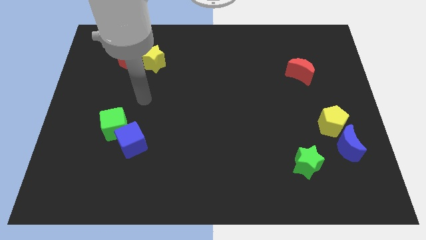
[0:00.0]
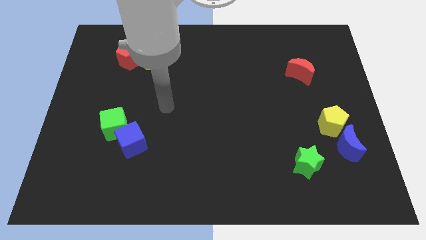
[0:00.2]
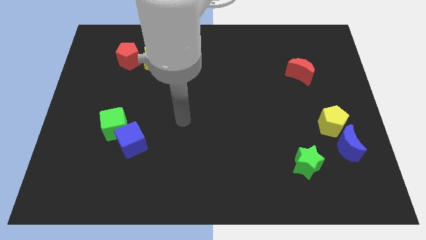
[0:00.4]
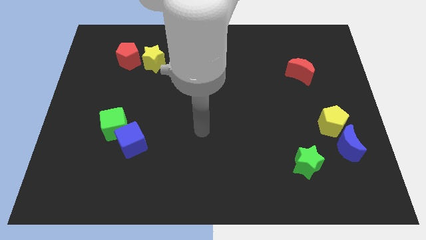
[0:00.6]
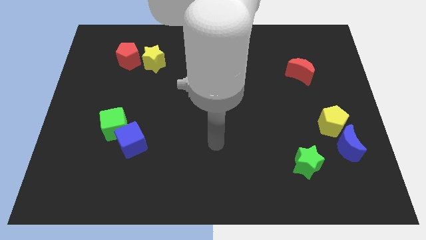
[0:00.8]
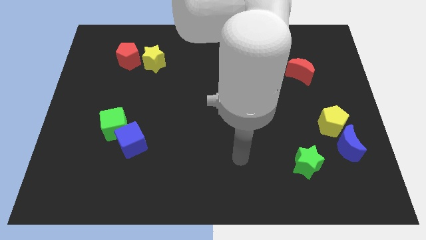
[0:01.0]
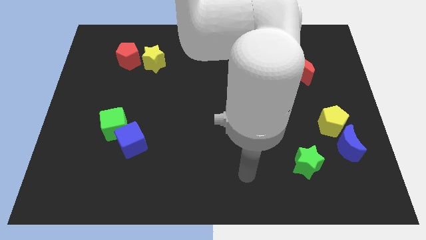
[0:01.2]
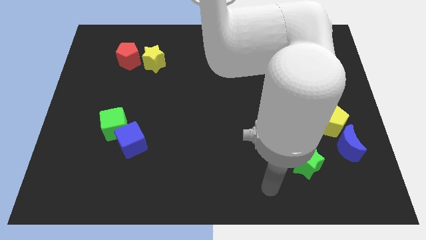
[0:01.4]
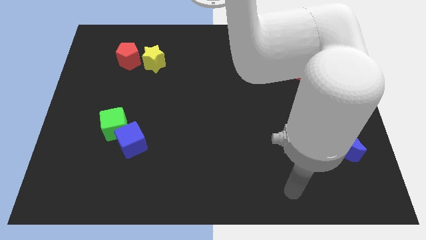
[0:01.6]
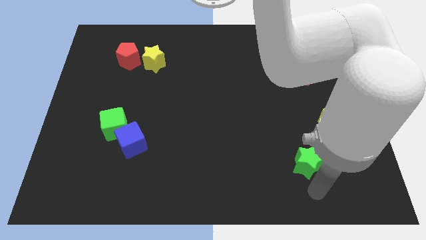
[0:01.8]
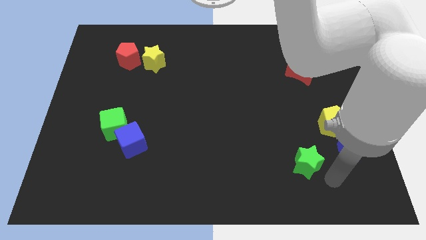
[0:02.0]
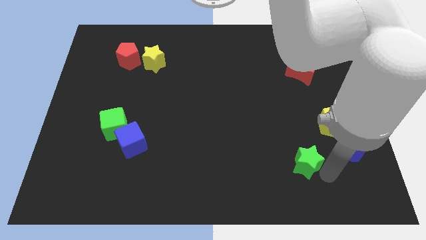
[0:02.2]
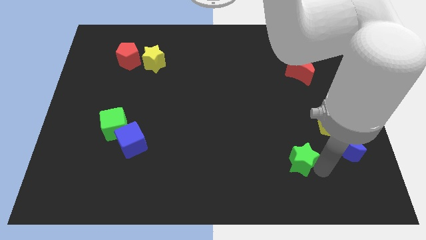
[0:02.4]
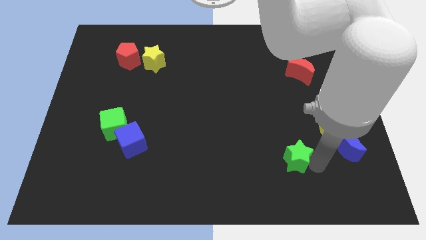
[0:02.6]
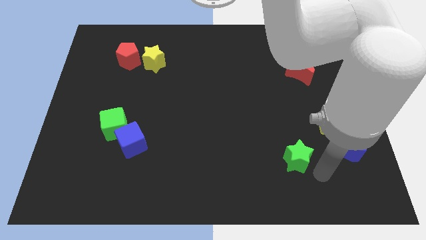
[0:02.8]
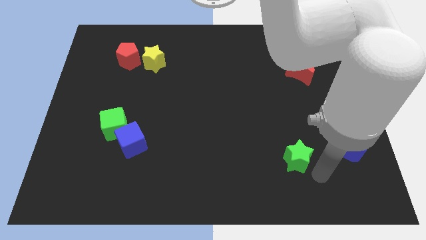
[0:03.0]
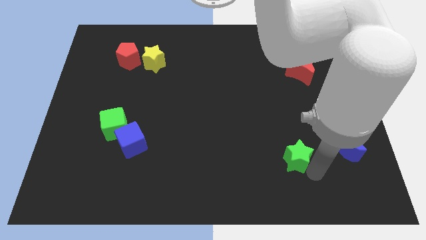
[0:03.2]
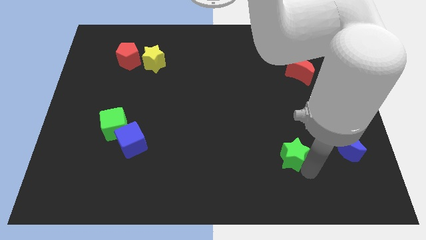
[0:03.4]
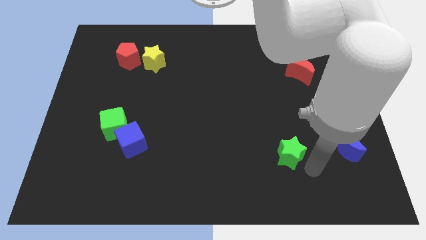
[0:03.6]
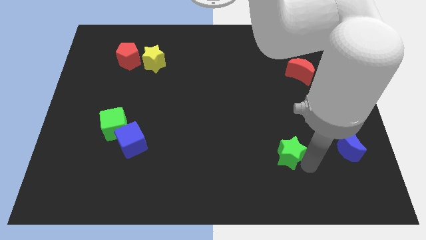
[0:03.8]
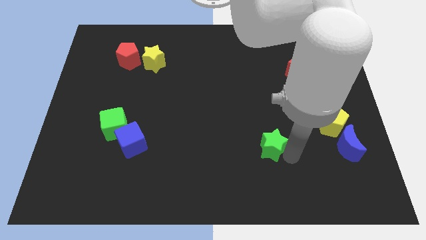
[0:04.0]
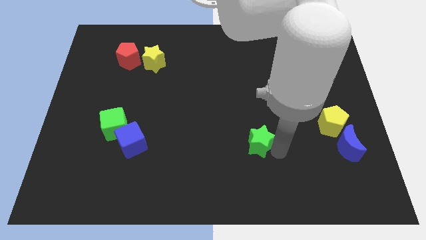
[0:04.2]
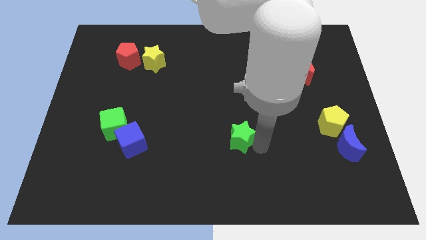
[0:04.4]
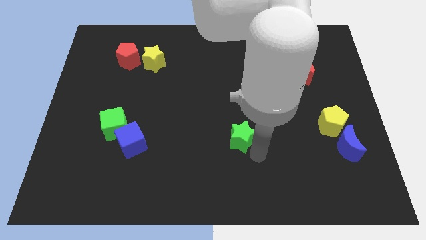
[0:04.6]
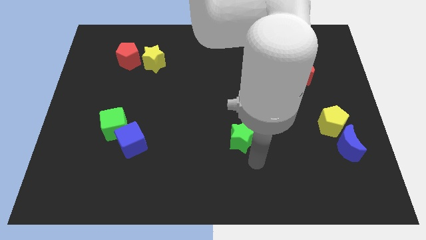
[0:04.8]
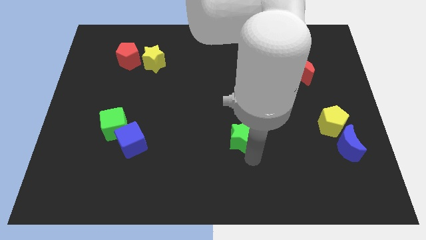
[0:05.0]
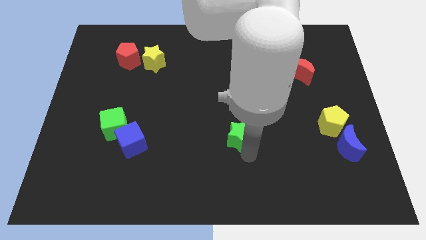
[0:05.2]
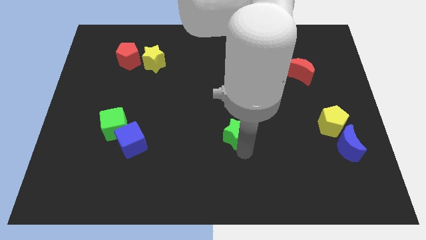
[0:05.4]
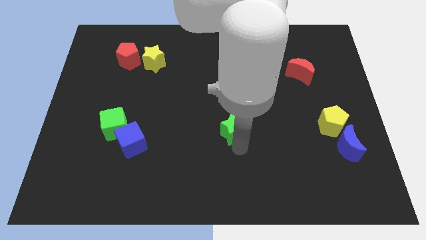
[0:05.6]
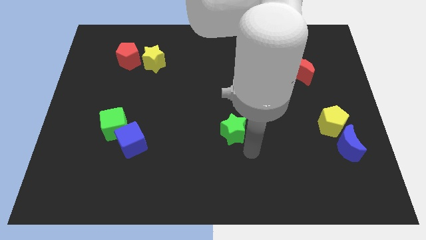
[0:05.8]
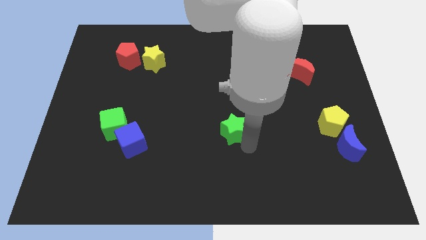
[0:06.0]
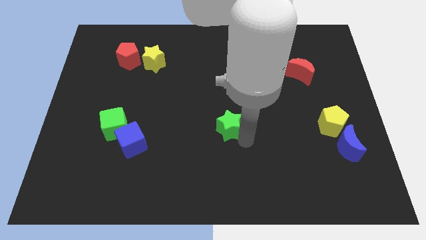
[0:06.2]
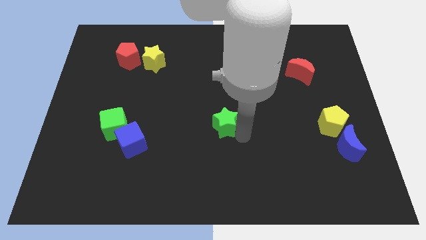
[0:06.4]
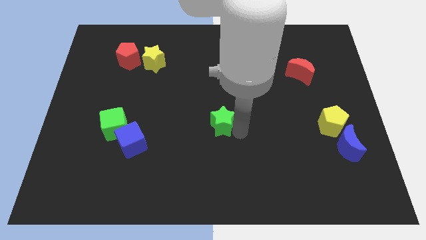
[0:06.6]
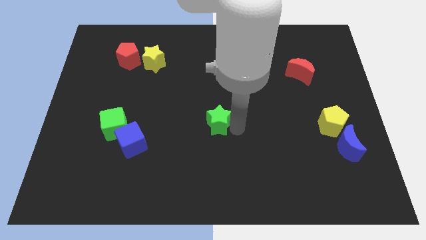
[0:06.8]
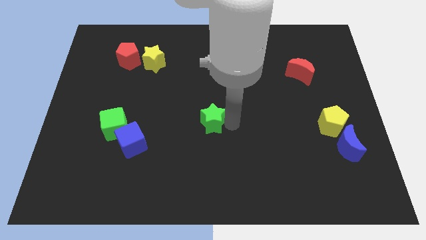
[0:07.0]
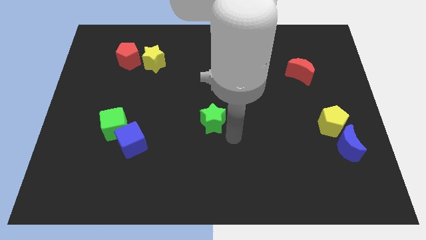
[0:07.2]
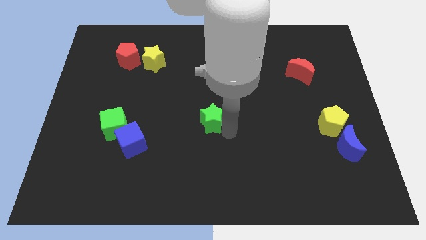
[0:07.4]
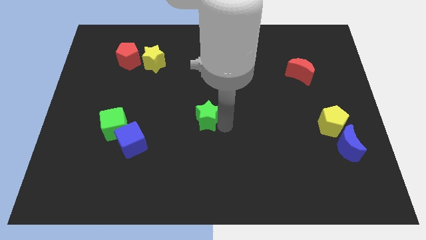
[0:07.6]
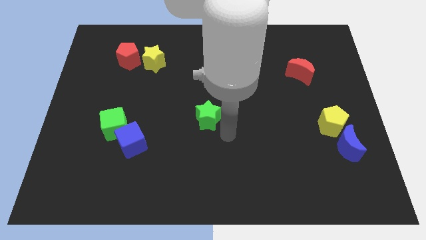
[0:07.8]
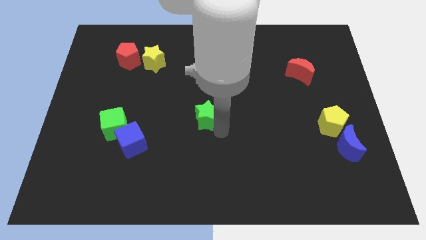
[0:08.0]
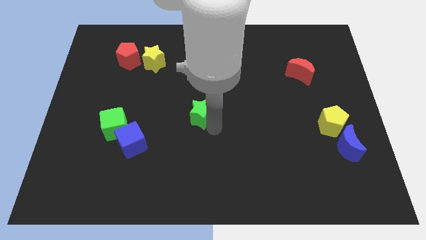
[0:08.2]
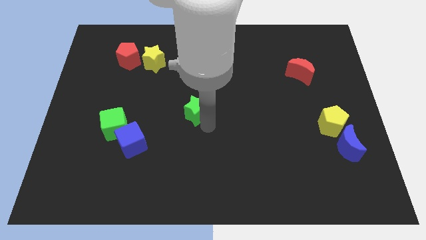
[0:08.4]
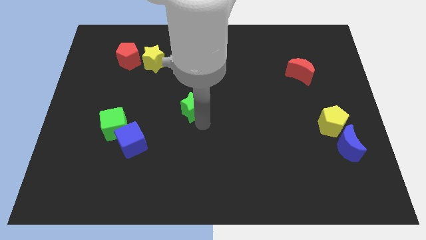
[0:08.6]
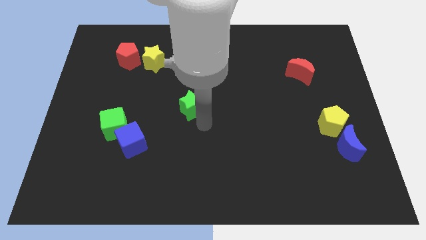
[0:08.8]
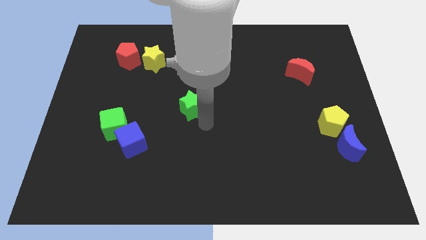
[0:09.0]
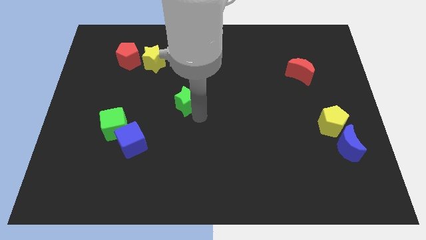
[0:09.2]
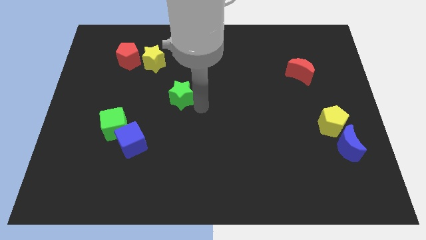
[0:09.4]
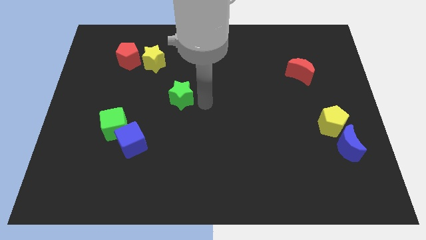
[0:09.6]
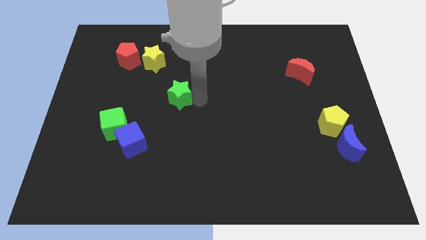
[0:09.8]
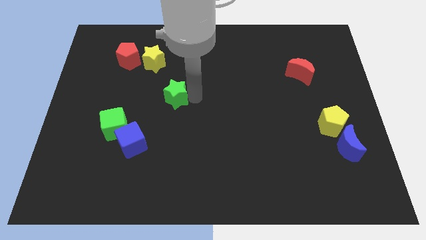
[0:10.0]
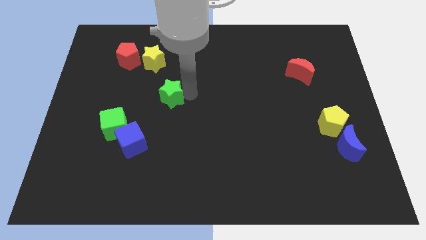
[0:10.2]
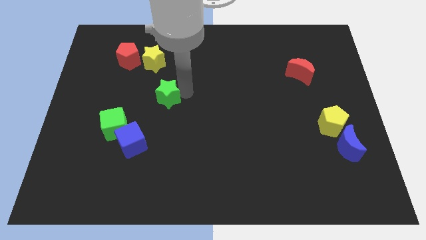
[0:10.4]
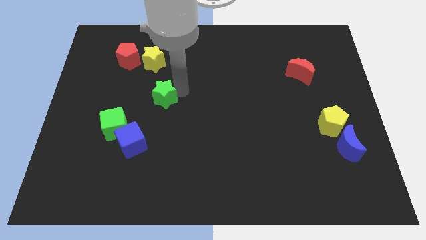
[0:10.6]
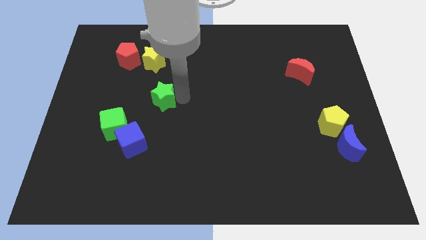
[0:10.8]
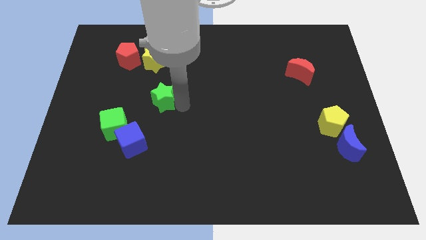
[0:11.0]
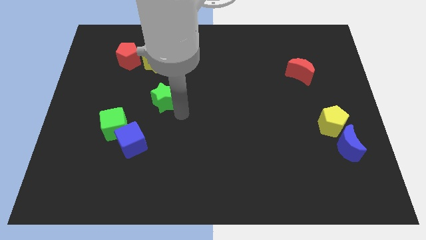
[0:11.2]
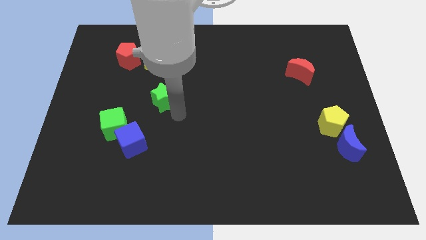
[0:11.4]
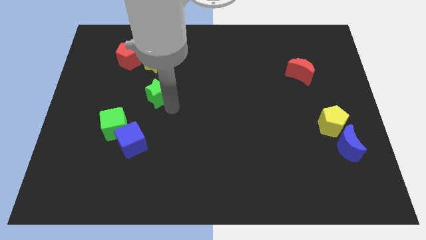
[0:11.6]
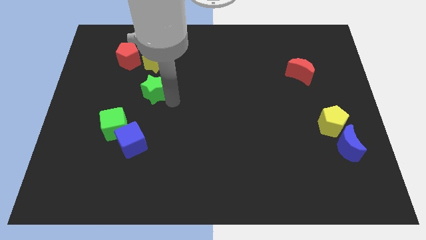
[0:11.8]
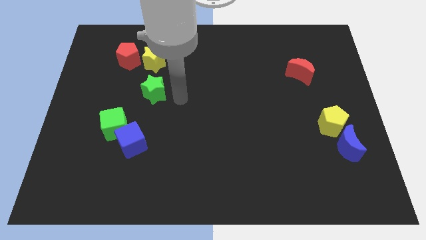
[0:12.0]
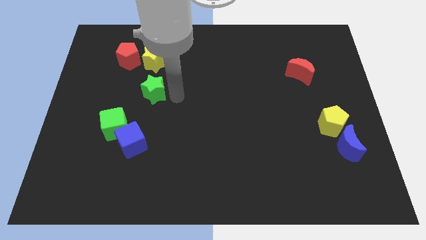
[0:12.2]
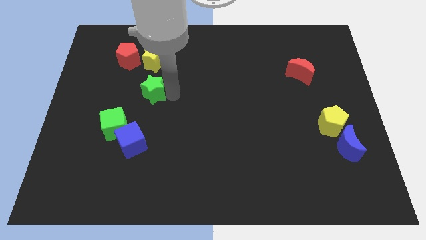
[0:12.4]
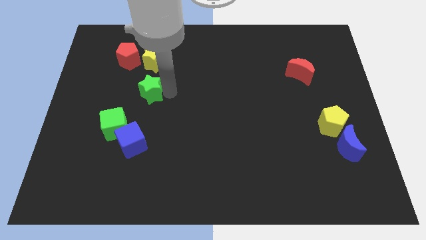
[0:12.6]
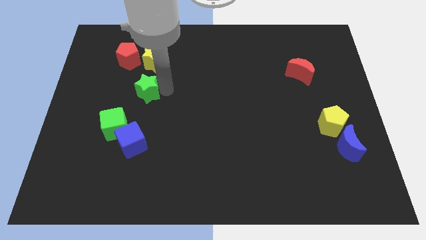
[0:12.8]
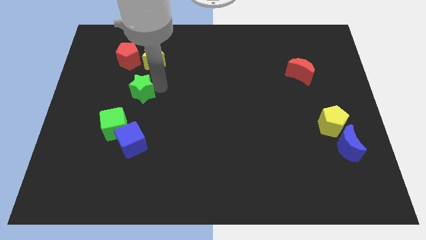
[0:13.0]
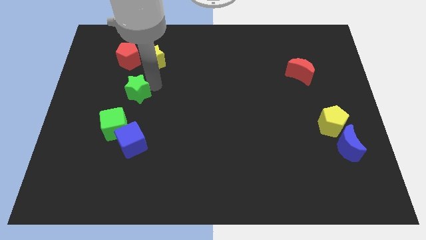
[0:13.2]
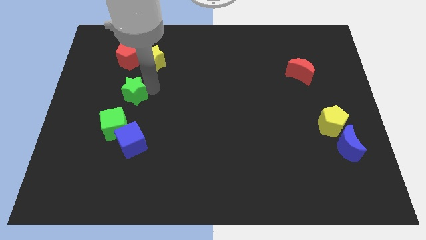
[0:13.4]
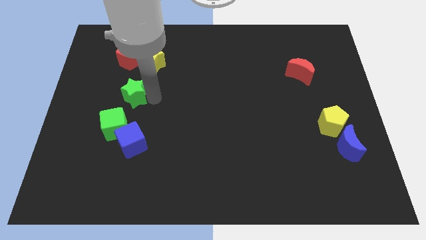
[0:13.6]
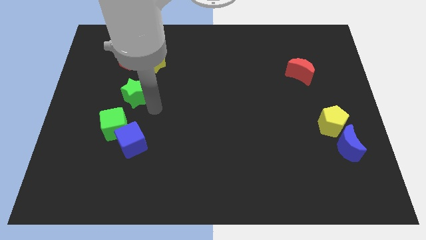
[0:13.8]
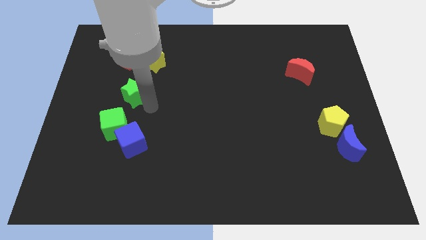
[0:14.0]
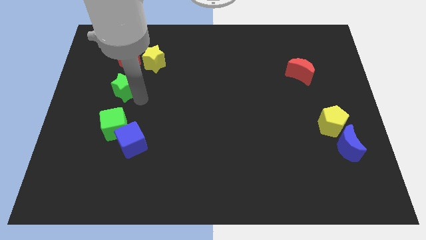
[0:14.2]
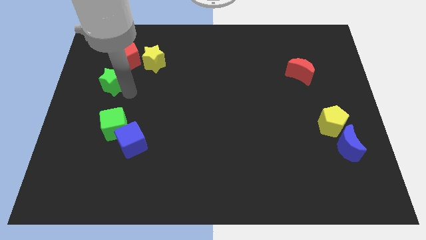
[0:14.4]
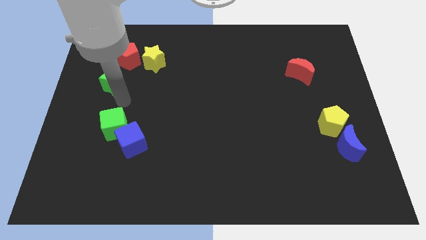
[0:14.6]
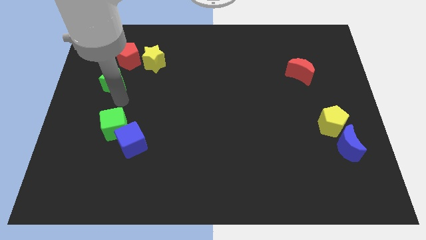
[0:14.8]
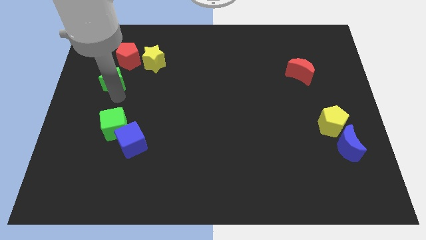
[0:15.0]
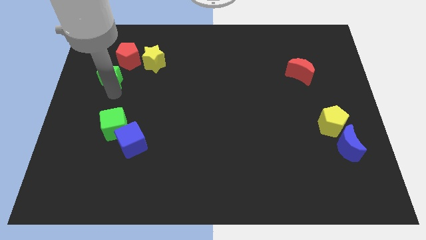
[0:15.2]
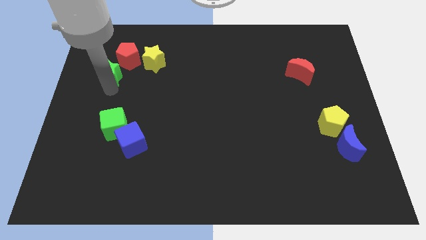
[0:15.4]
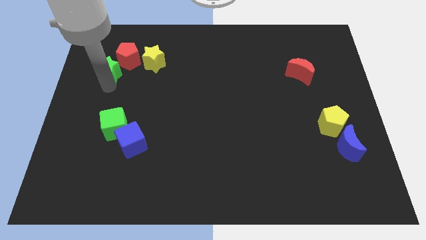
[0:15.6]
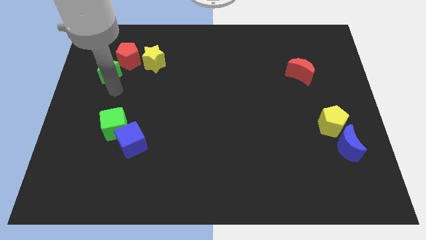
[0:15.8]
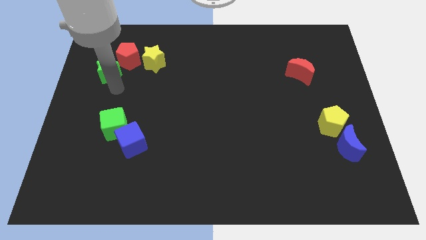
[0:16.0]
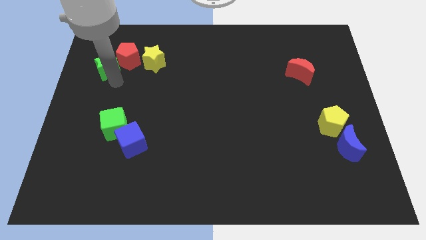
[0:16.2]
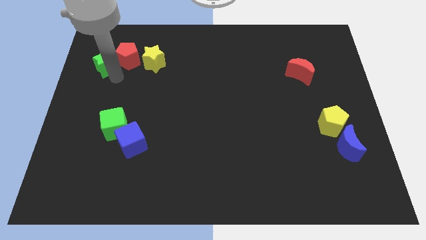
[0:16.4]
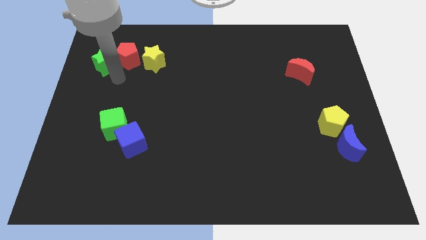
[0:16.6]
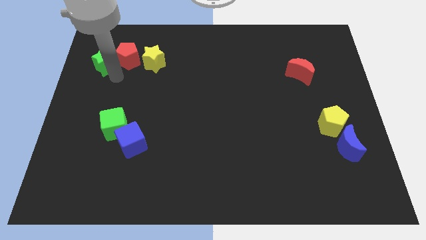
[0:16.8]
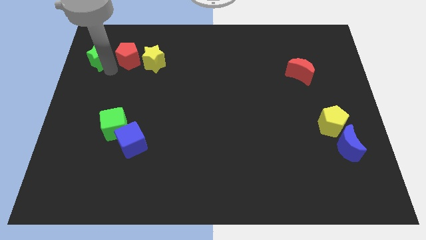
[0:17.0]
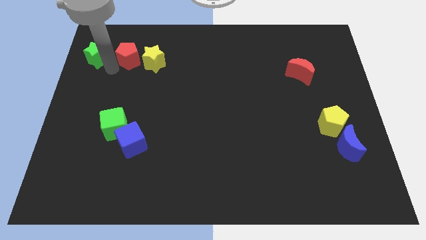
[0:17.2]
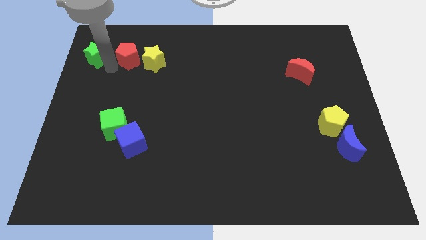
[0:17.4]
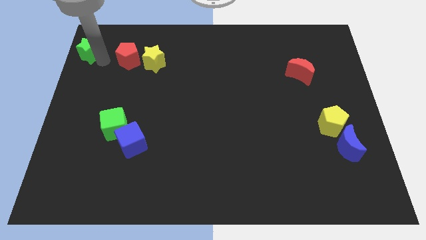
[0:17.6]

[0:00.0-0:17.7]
put the green star to the top left of the board
